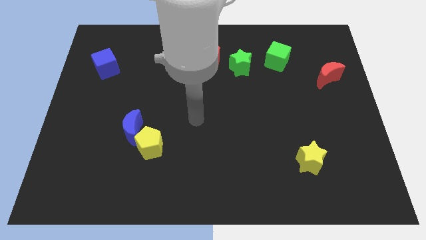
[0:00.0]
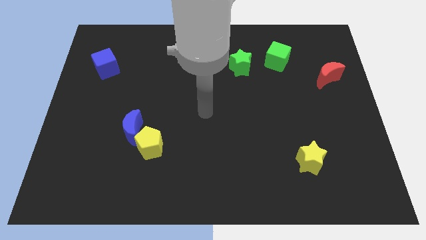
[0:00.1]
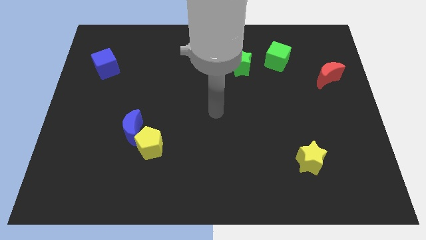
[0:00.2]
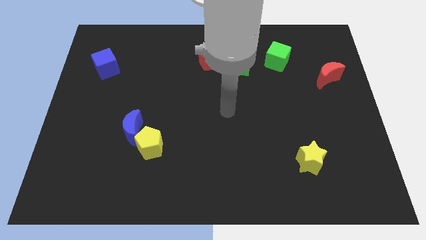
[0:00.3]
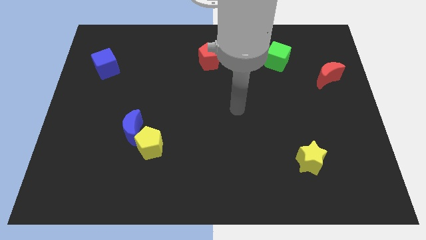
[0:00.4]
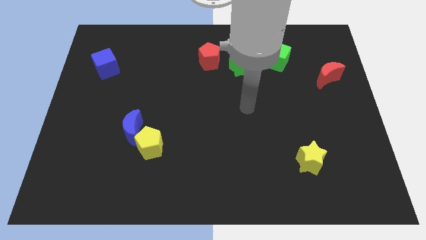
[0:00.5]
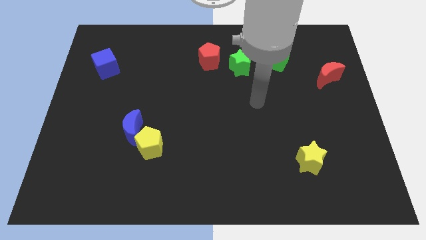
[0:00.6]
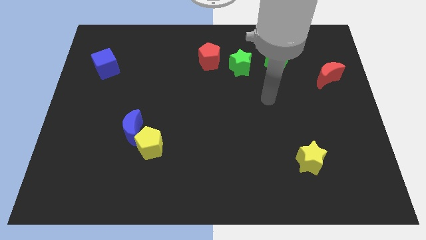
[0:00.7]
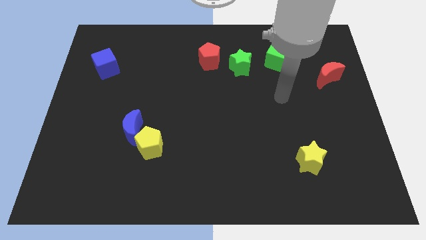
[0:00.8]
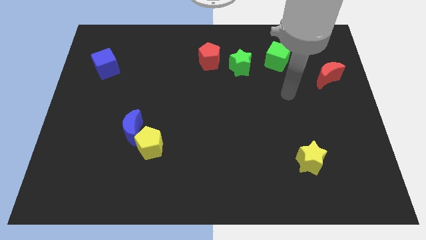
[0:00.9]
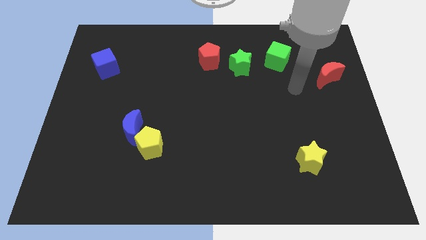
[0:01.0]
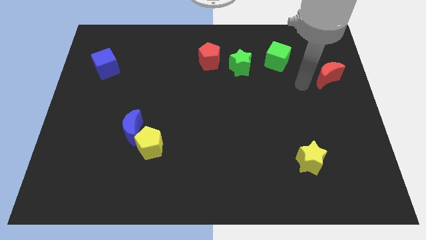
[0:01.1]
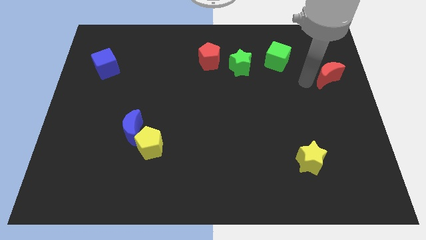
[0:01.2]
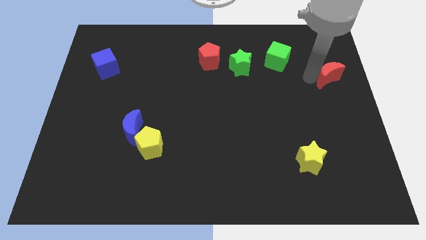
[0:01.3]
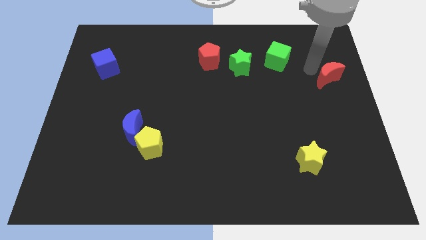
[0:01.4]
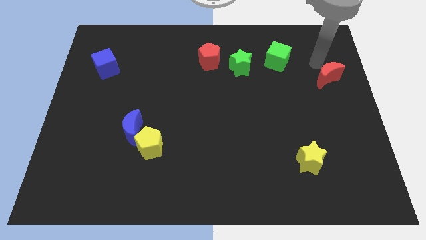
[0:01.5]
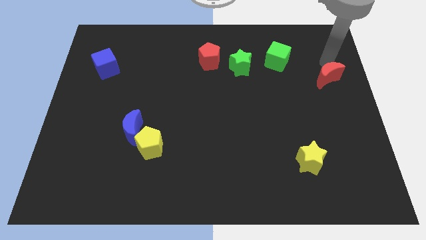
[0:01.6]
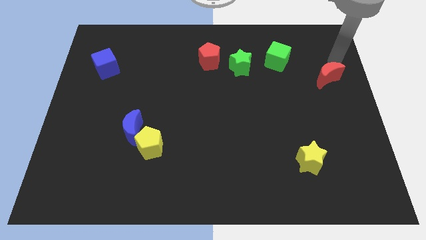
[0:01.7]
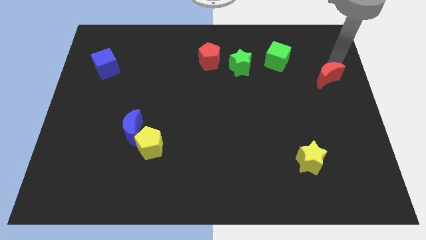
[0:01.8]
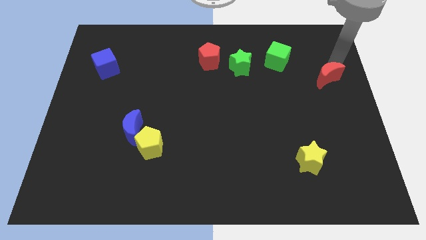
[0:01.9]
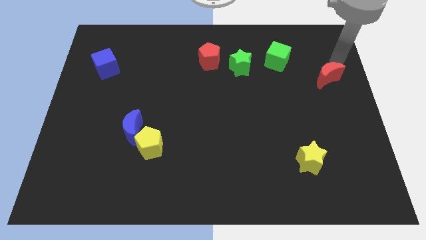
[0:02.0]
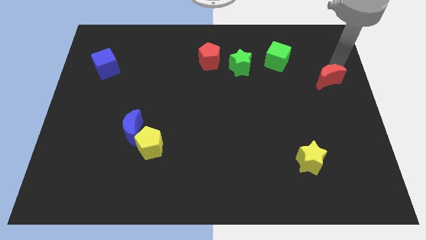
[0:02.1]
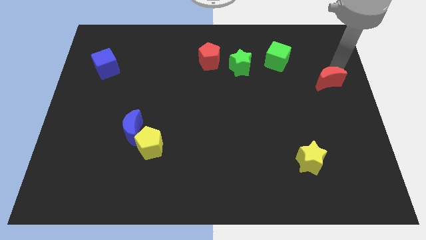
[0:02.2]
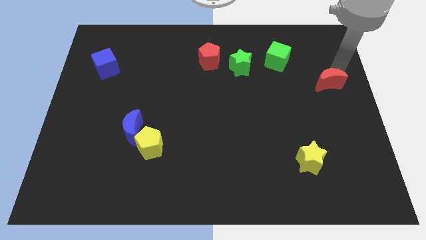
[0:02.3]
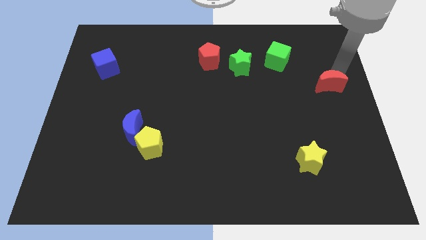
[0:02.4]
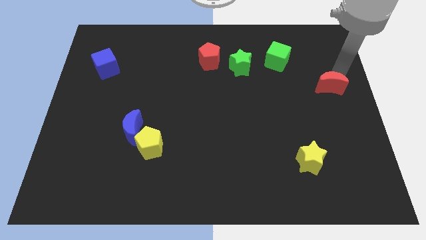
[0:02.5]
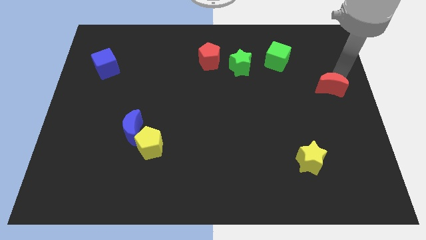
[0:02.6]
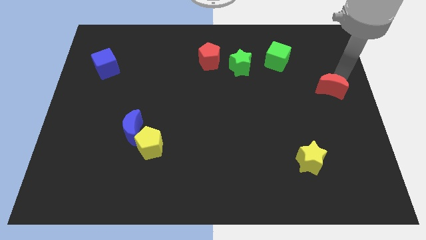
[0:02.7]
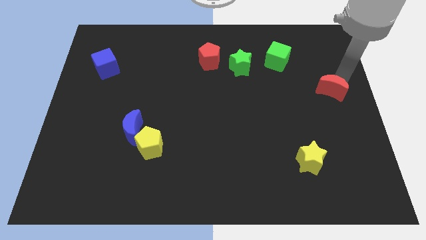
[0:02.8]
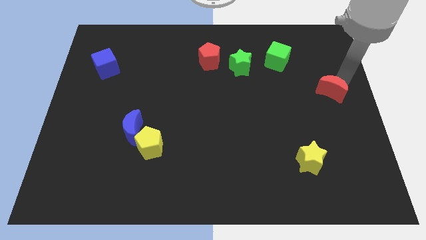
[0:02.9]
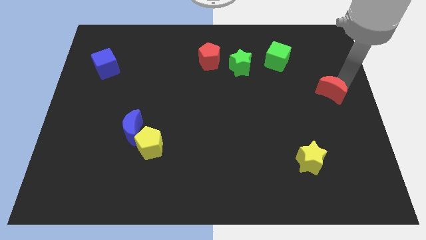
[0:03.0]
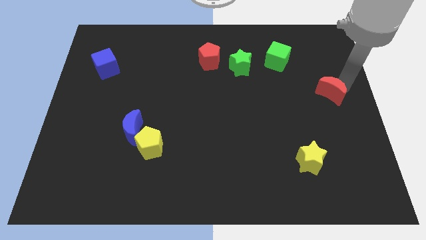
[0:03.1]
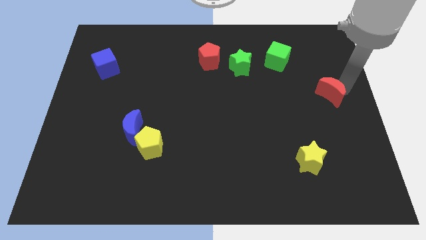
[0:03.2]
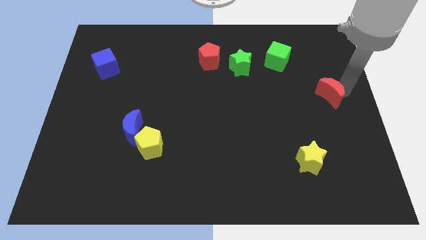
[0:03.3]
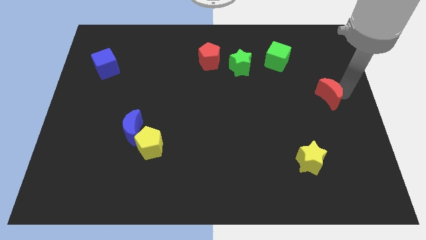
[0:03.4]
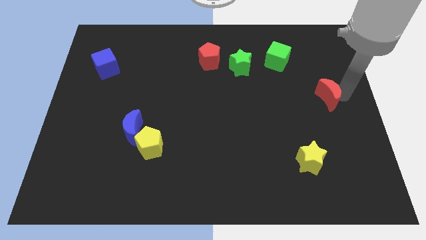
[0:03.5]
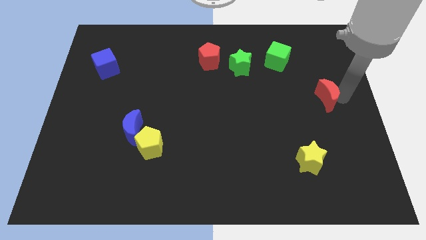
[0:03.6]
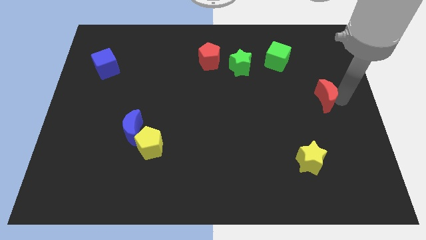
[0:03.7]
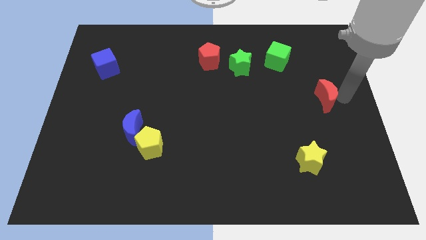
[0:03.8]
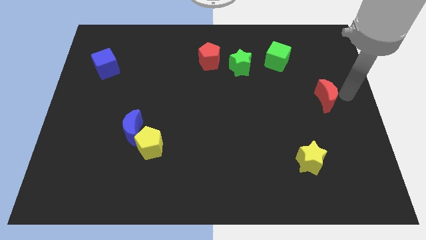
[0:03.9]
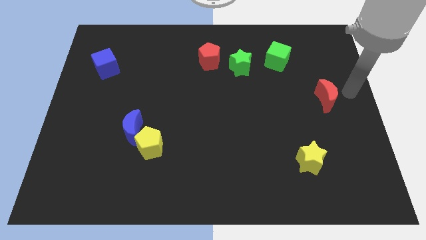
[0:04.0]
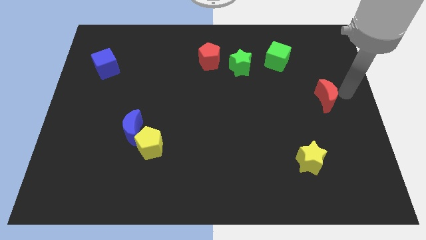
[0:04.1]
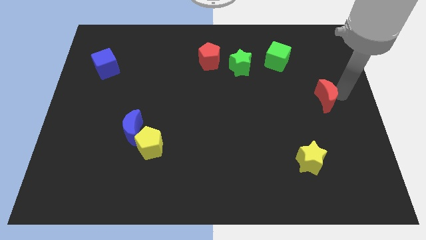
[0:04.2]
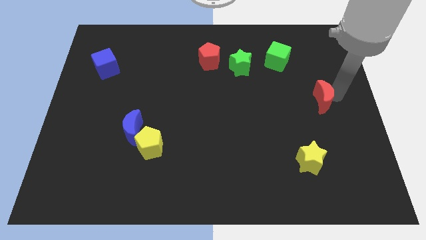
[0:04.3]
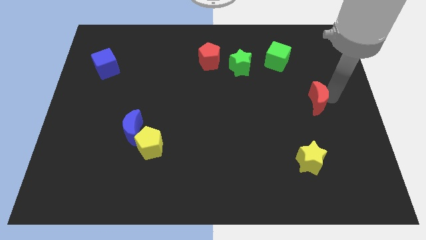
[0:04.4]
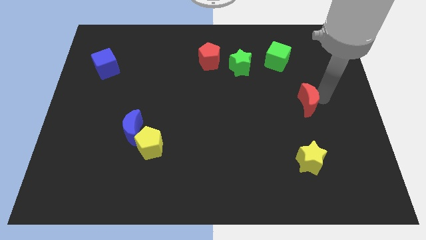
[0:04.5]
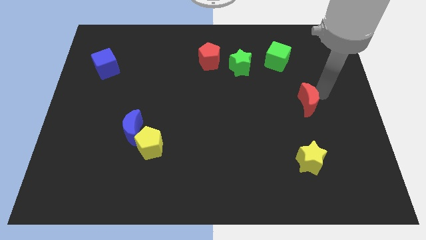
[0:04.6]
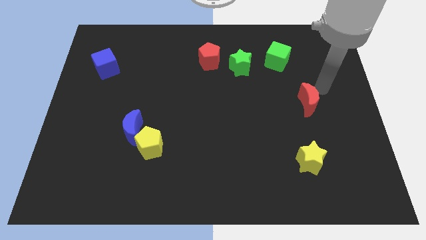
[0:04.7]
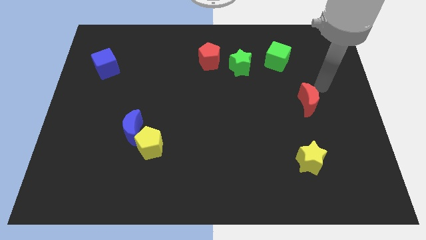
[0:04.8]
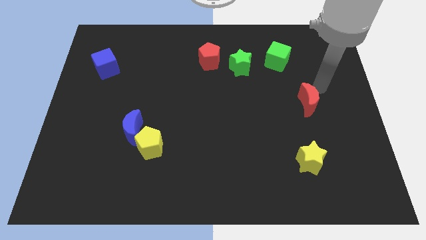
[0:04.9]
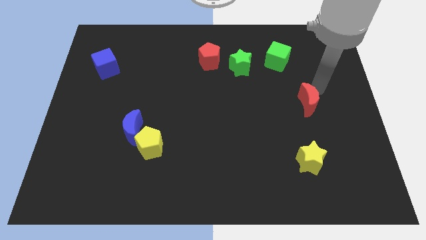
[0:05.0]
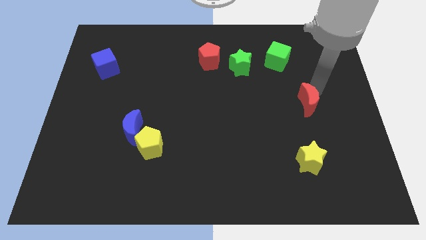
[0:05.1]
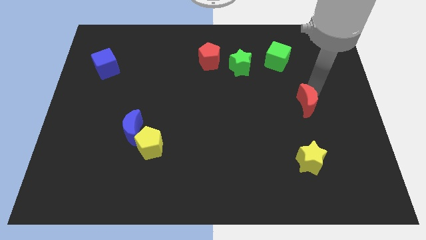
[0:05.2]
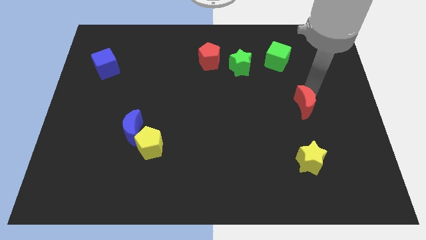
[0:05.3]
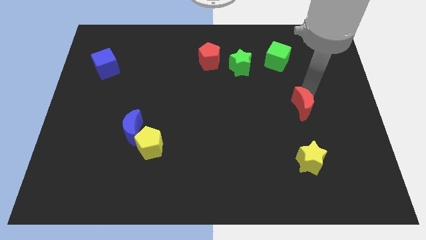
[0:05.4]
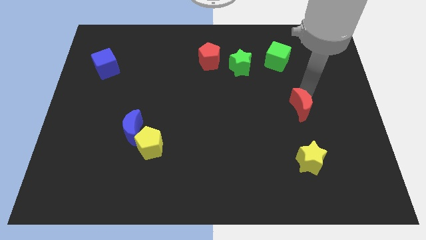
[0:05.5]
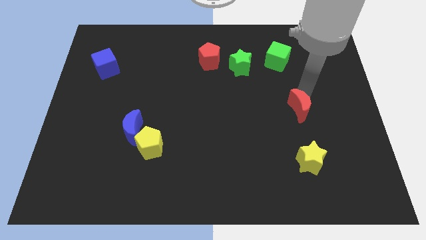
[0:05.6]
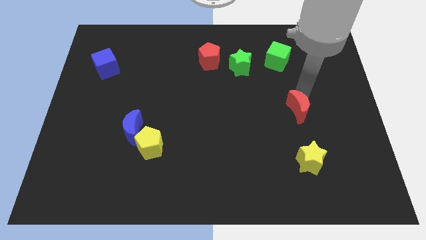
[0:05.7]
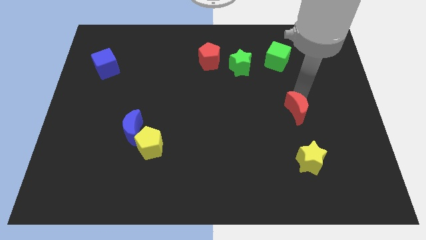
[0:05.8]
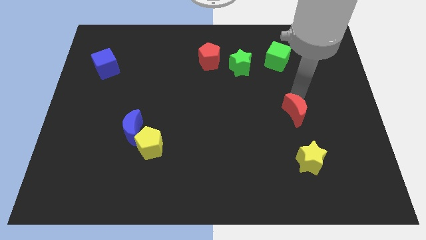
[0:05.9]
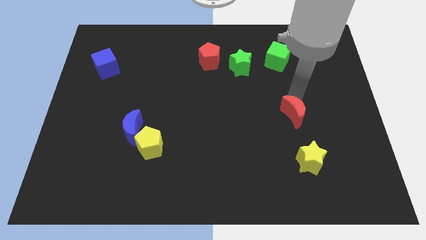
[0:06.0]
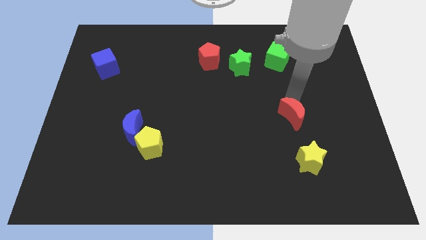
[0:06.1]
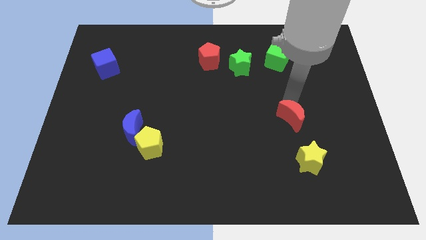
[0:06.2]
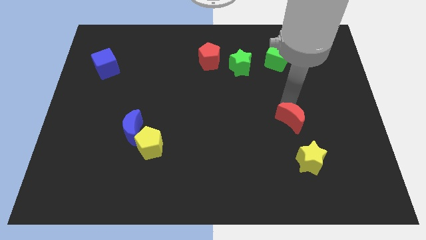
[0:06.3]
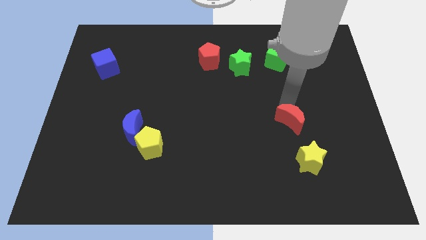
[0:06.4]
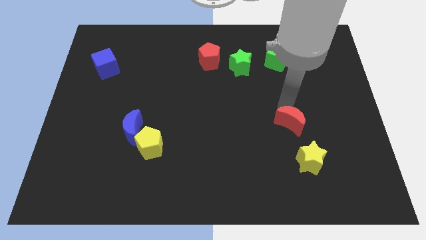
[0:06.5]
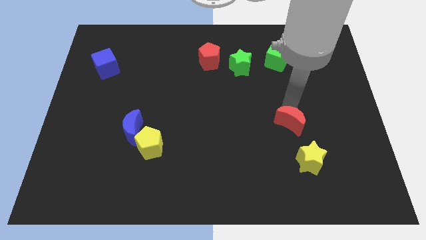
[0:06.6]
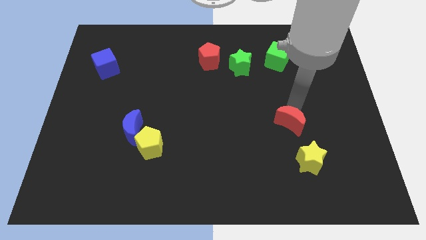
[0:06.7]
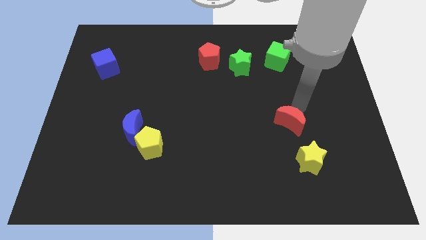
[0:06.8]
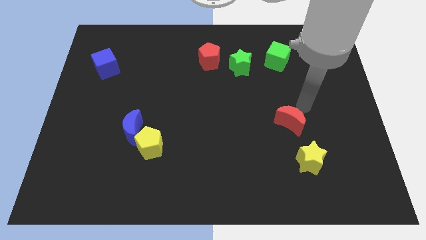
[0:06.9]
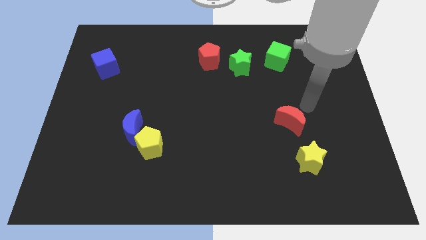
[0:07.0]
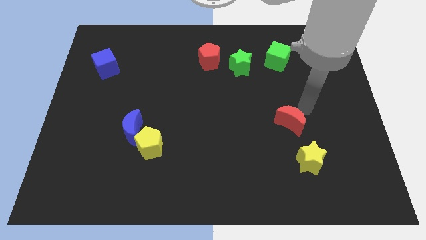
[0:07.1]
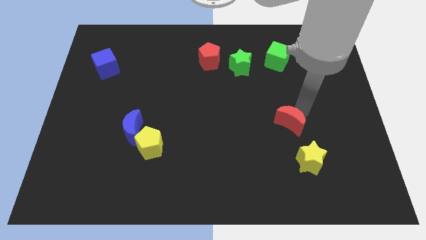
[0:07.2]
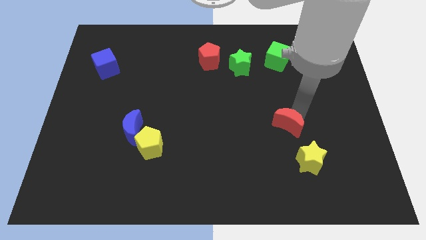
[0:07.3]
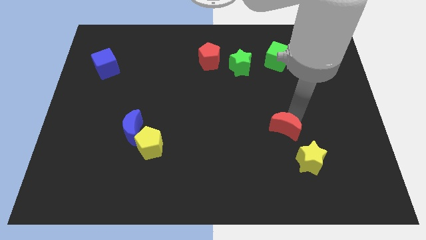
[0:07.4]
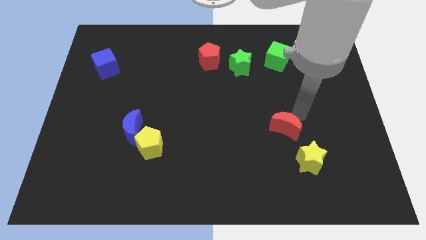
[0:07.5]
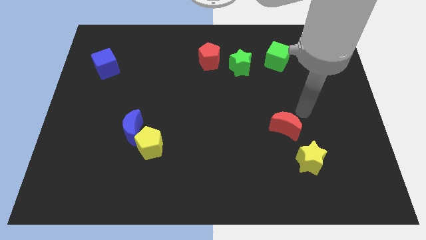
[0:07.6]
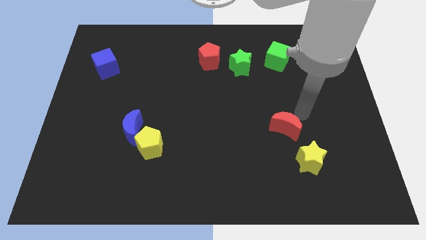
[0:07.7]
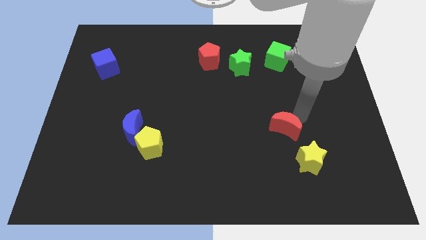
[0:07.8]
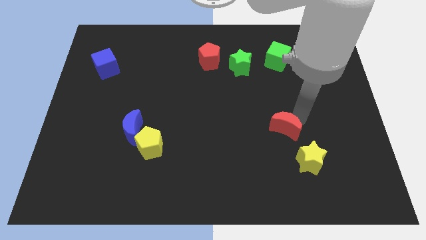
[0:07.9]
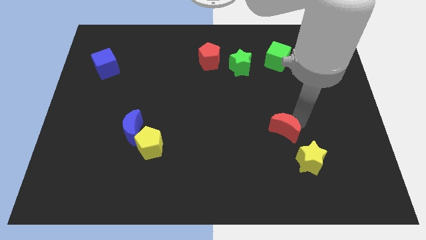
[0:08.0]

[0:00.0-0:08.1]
move the red moon diagonally down and left
